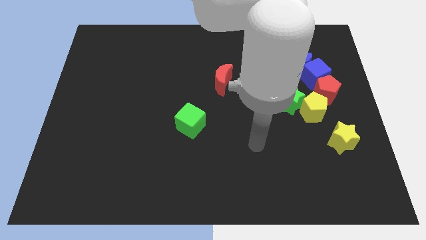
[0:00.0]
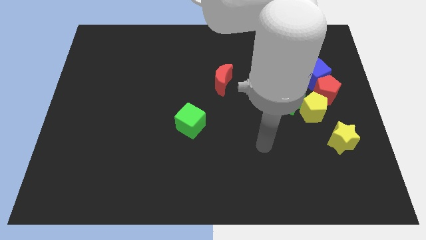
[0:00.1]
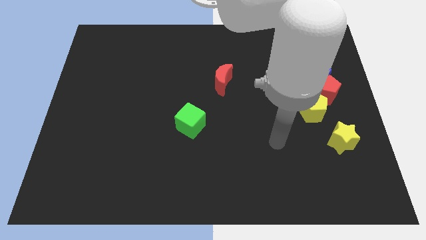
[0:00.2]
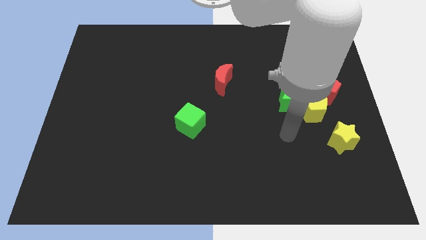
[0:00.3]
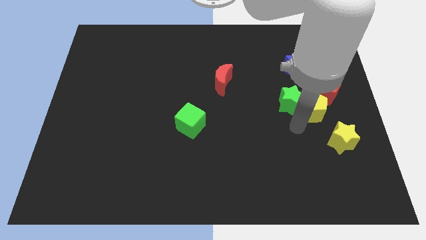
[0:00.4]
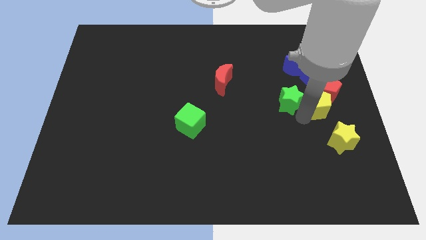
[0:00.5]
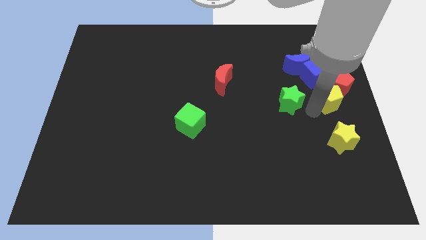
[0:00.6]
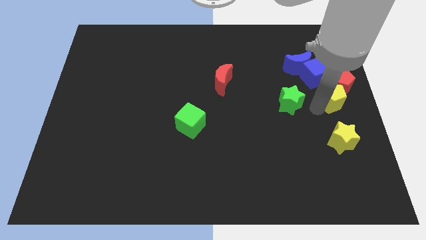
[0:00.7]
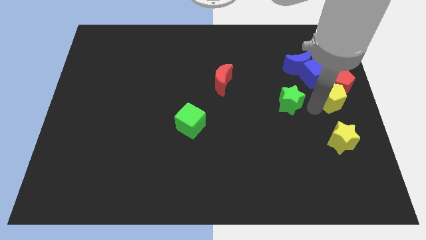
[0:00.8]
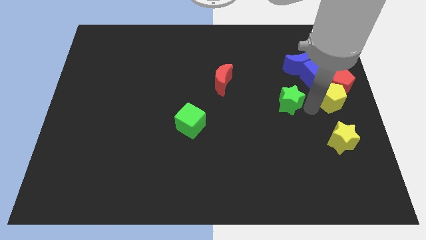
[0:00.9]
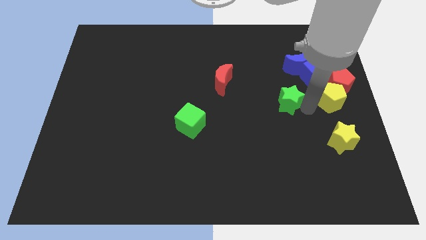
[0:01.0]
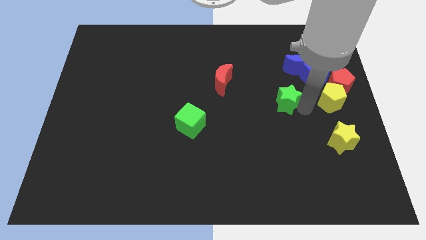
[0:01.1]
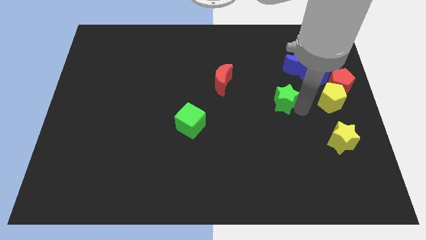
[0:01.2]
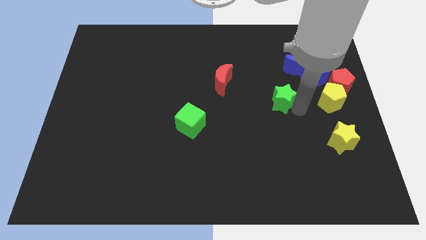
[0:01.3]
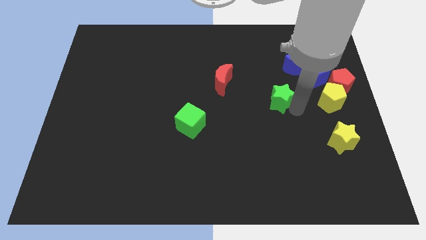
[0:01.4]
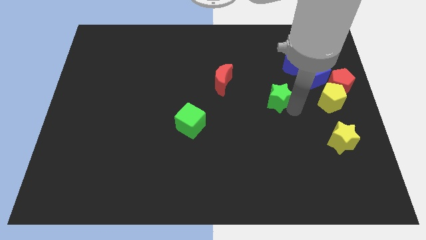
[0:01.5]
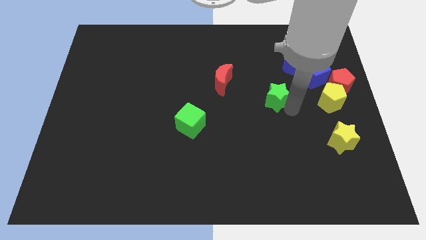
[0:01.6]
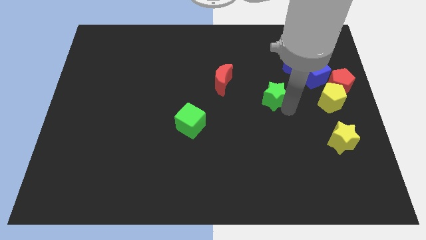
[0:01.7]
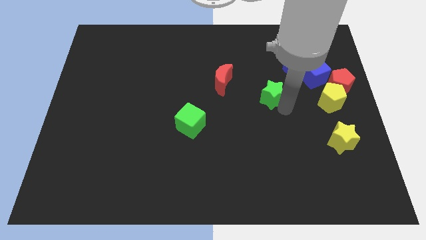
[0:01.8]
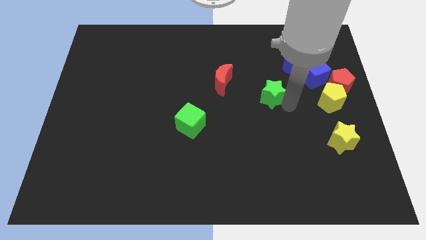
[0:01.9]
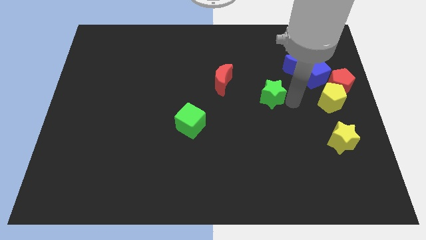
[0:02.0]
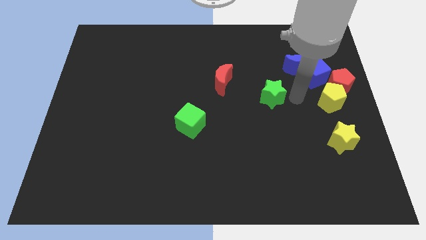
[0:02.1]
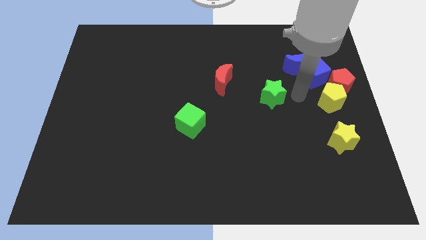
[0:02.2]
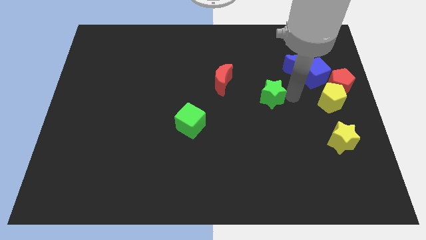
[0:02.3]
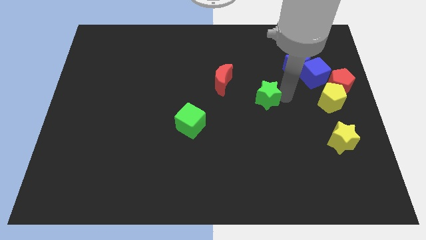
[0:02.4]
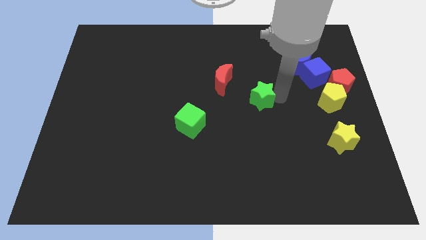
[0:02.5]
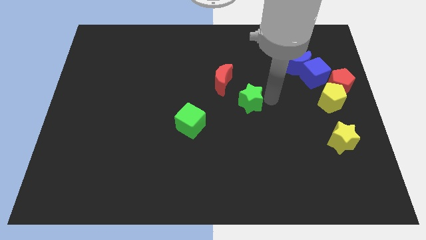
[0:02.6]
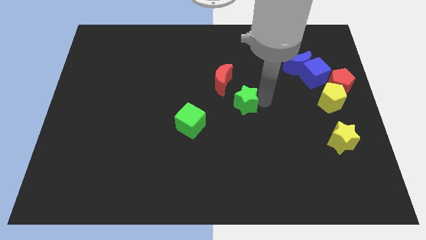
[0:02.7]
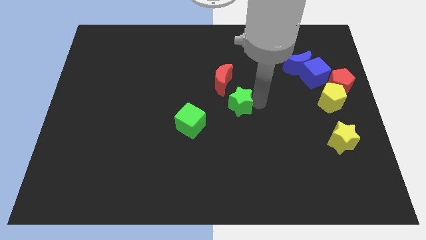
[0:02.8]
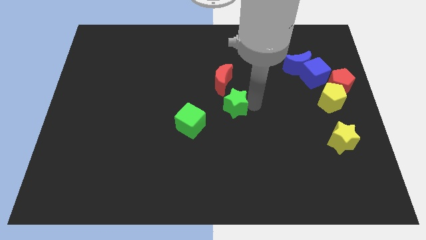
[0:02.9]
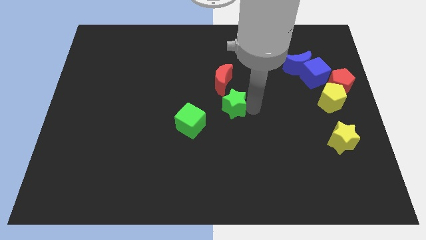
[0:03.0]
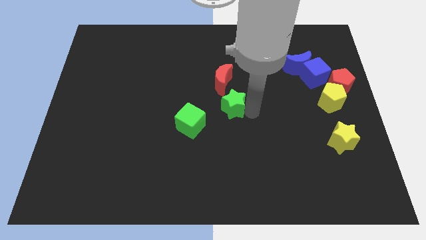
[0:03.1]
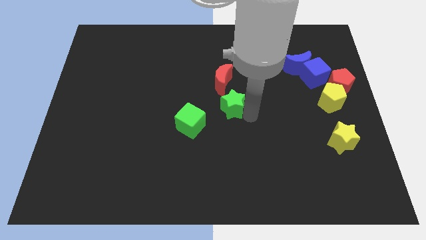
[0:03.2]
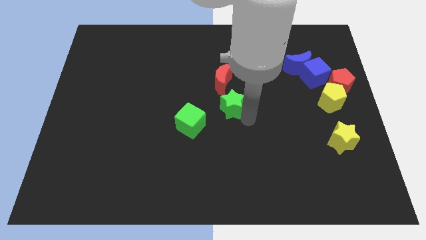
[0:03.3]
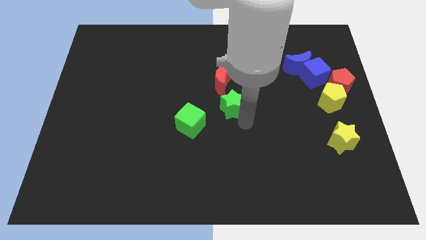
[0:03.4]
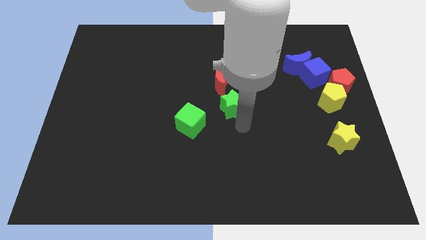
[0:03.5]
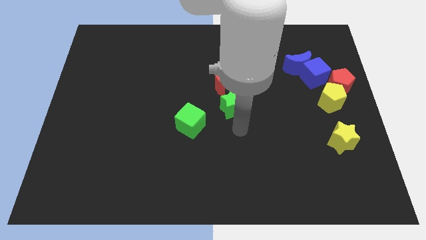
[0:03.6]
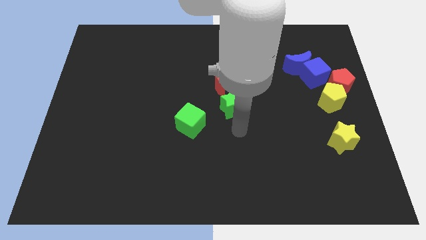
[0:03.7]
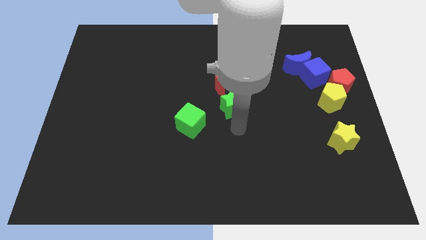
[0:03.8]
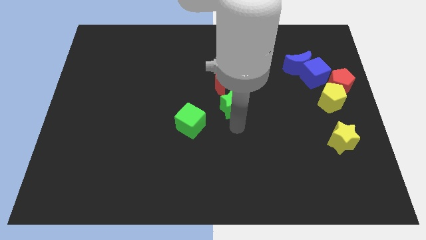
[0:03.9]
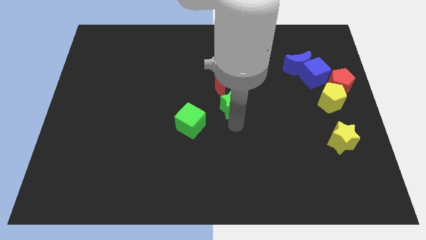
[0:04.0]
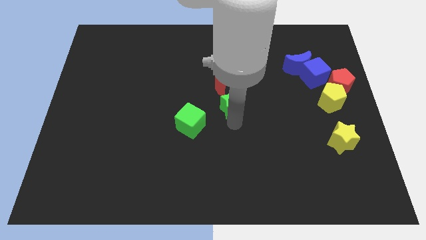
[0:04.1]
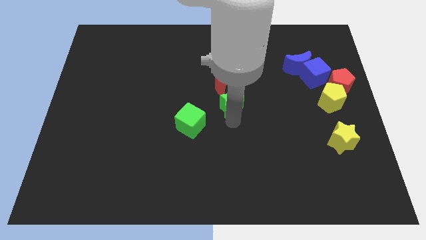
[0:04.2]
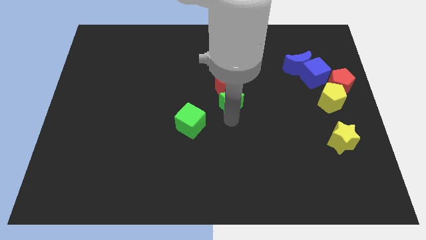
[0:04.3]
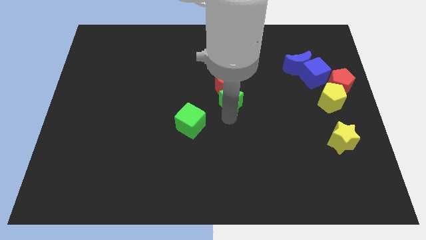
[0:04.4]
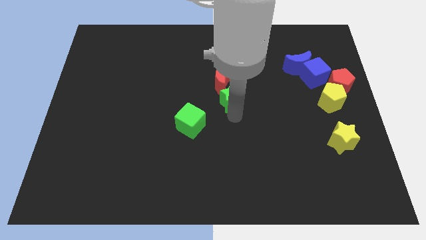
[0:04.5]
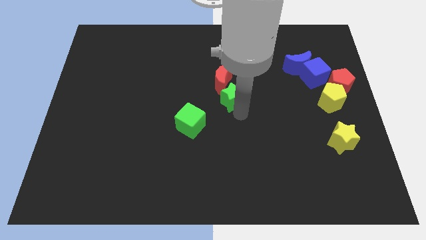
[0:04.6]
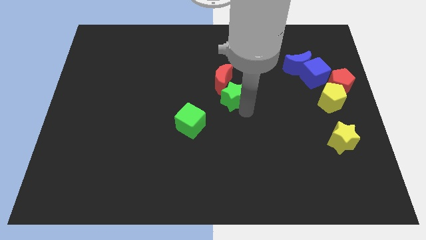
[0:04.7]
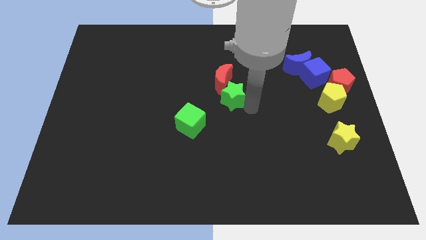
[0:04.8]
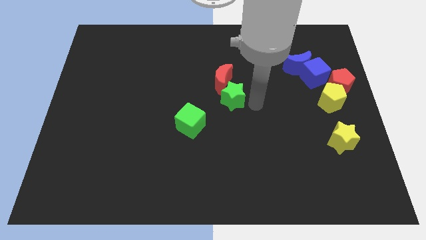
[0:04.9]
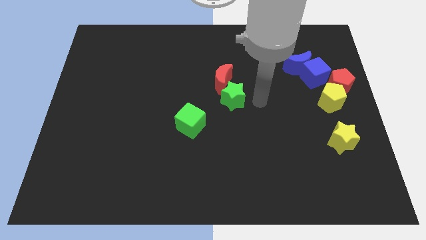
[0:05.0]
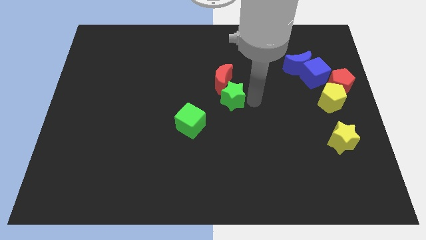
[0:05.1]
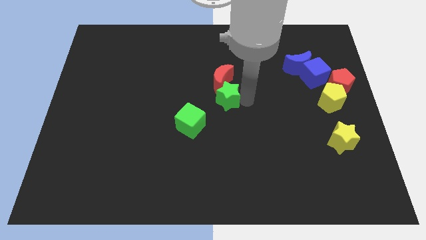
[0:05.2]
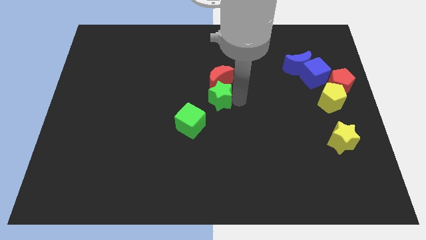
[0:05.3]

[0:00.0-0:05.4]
slide the green star diagonally down and to the left of the red moon

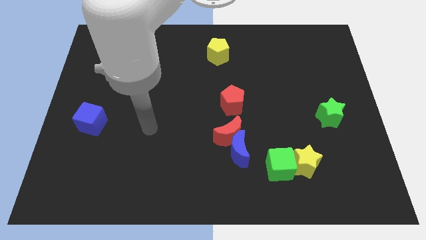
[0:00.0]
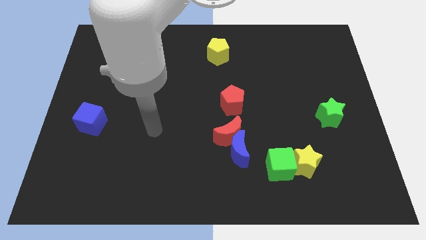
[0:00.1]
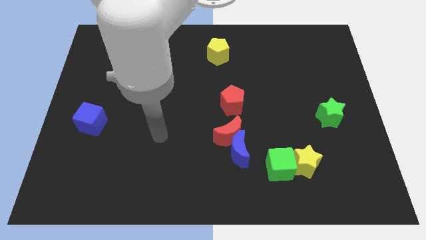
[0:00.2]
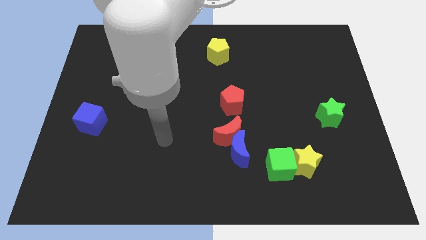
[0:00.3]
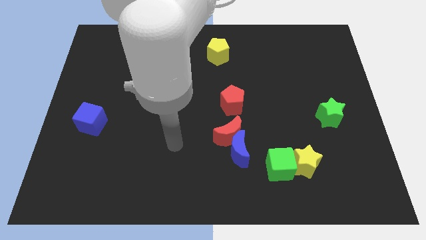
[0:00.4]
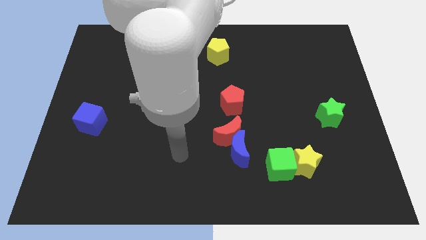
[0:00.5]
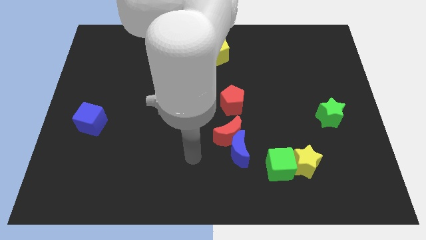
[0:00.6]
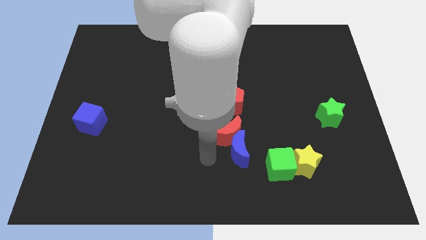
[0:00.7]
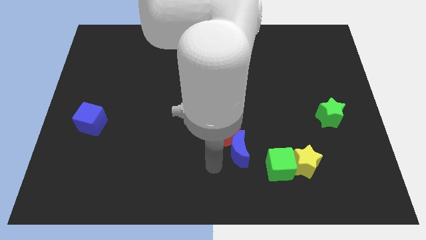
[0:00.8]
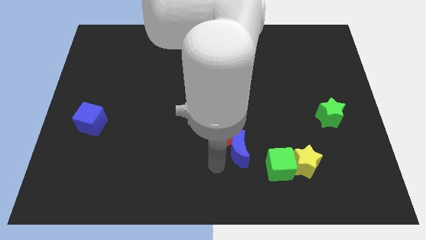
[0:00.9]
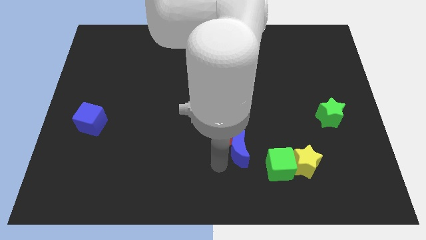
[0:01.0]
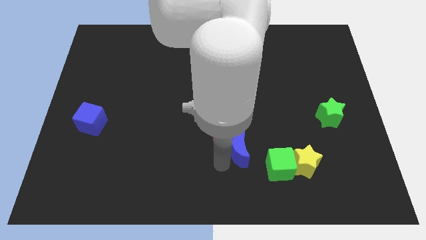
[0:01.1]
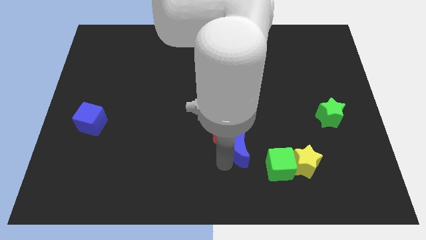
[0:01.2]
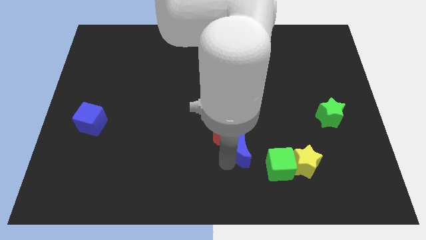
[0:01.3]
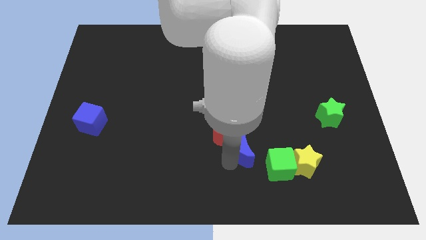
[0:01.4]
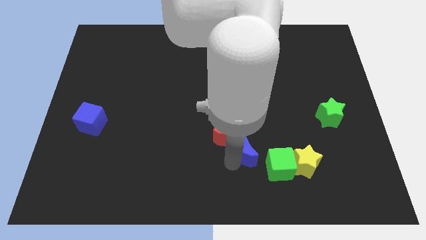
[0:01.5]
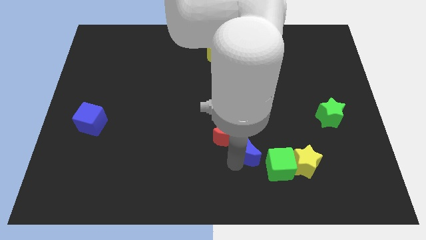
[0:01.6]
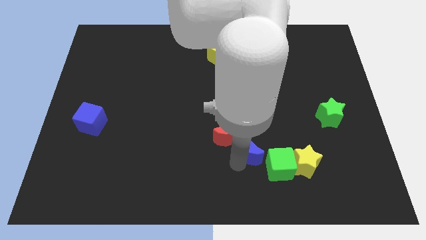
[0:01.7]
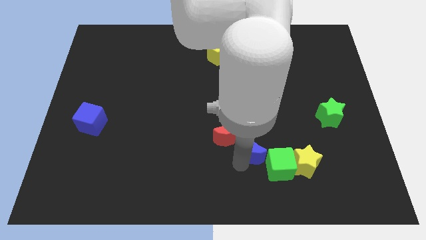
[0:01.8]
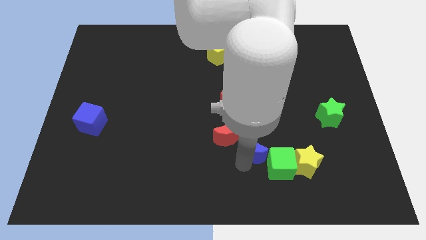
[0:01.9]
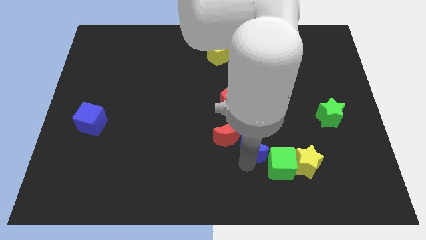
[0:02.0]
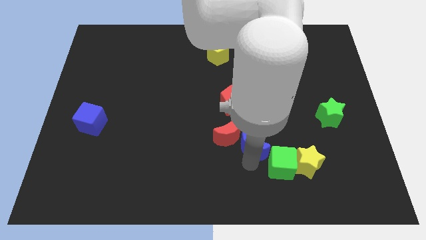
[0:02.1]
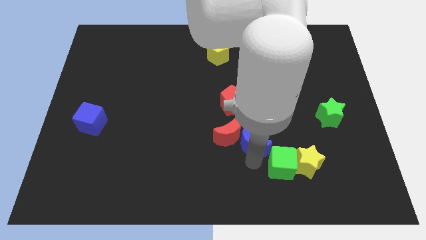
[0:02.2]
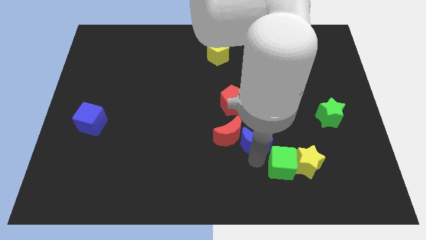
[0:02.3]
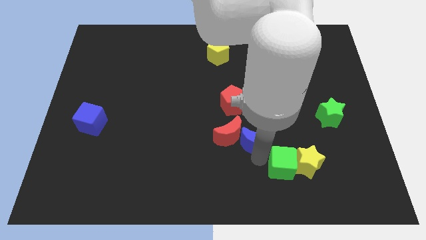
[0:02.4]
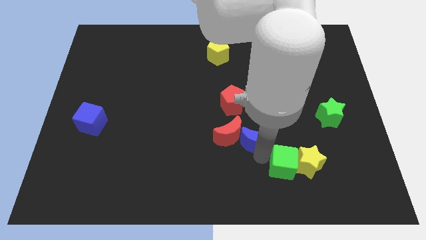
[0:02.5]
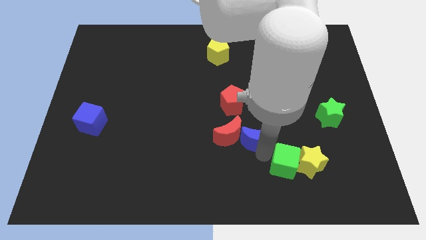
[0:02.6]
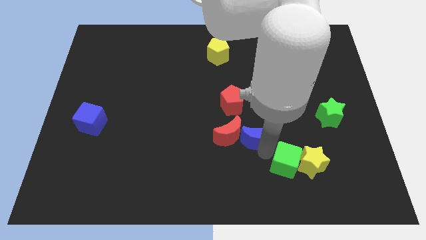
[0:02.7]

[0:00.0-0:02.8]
put the blue moon to the top right of the red moon
